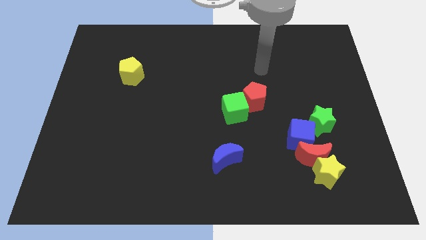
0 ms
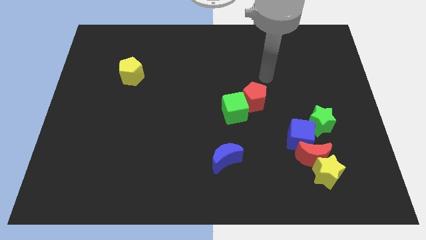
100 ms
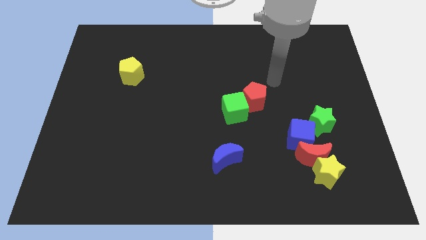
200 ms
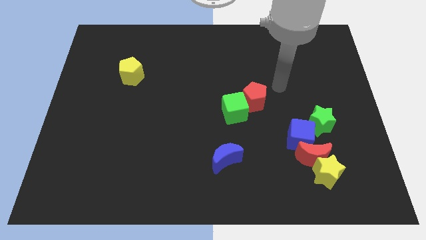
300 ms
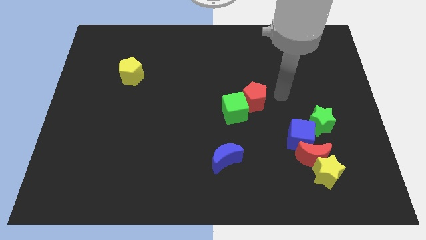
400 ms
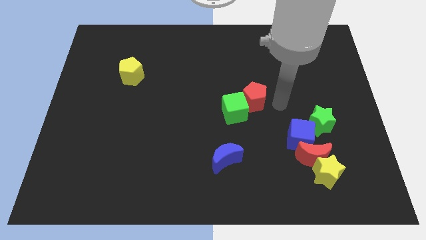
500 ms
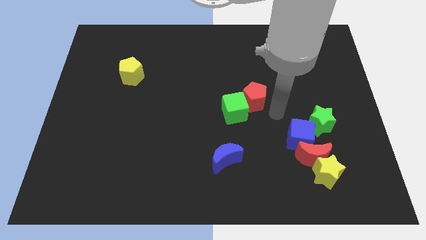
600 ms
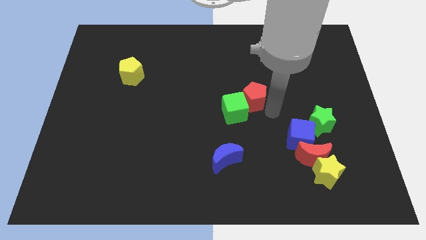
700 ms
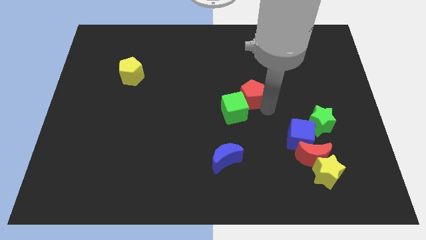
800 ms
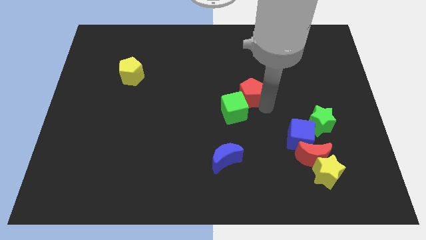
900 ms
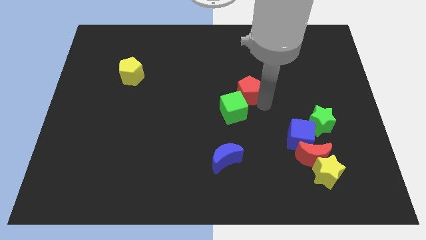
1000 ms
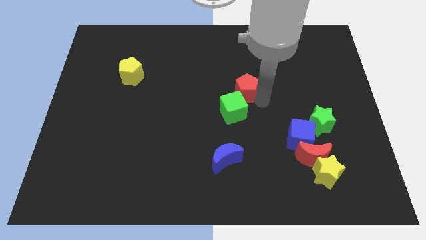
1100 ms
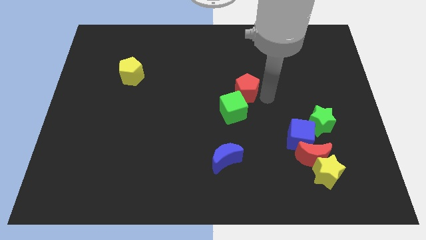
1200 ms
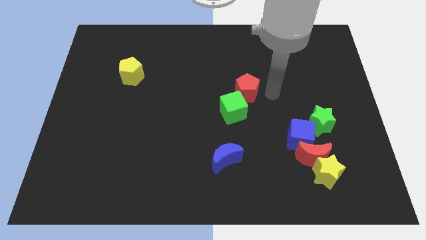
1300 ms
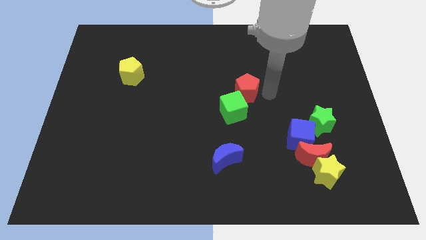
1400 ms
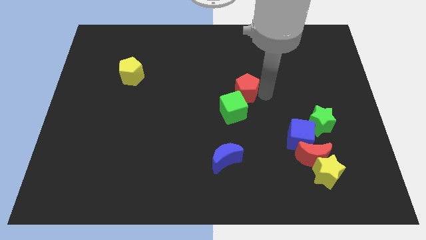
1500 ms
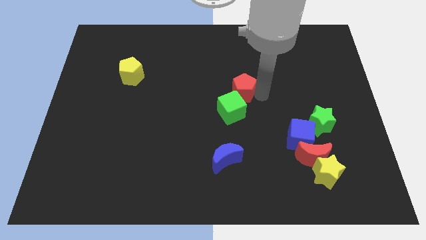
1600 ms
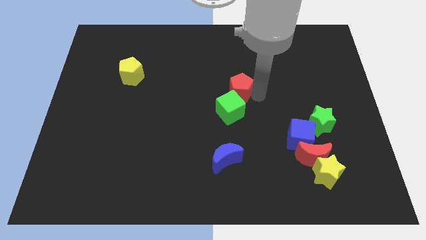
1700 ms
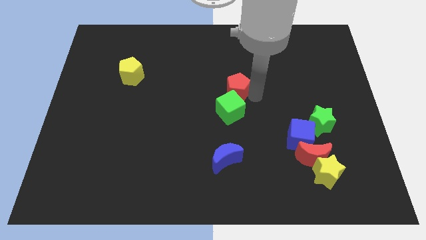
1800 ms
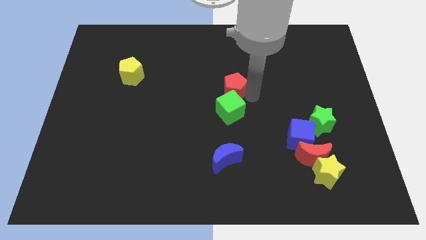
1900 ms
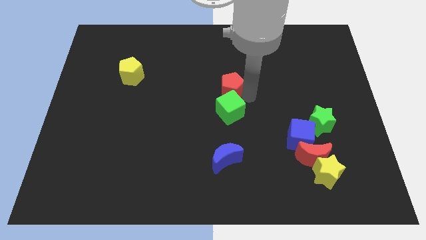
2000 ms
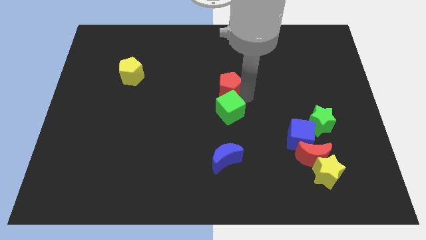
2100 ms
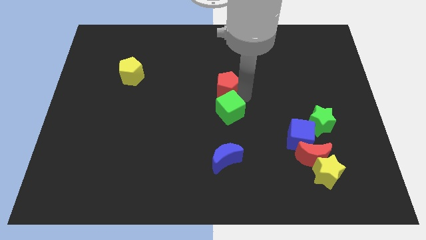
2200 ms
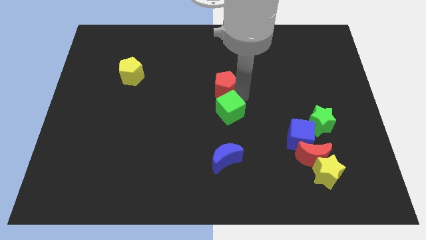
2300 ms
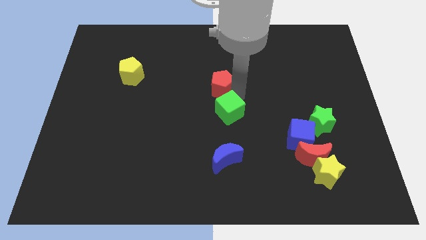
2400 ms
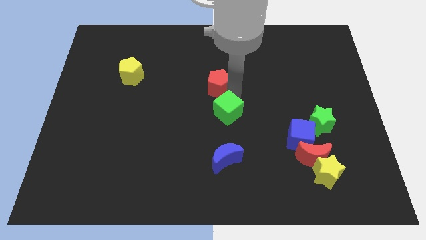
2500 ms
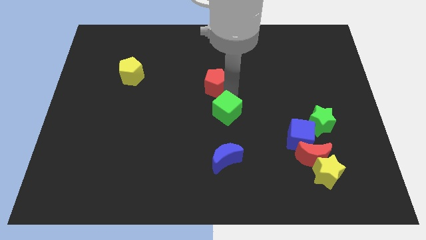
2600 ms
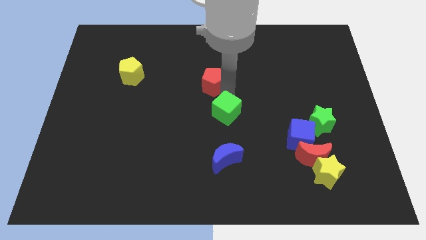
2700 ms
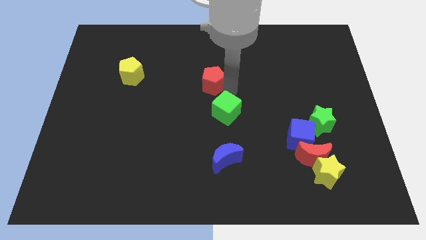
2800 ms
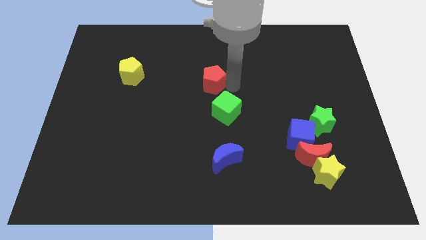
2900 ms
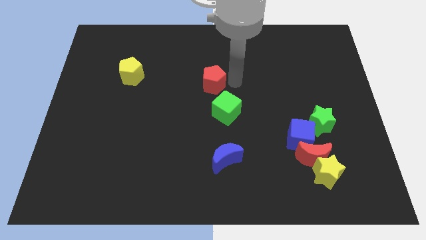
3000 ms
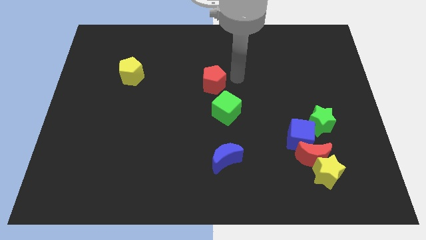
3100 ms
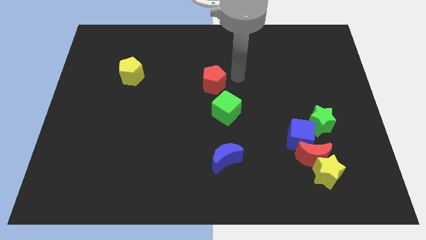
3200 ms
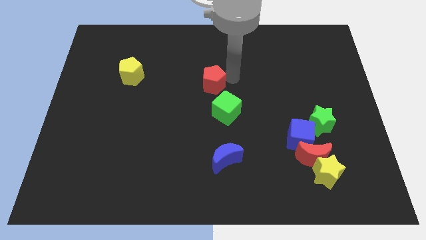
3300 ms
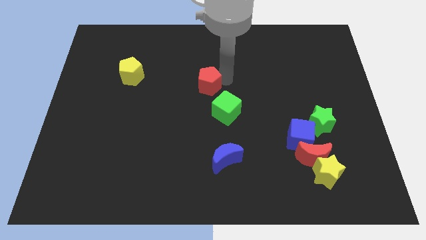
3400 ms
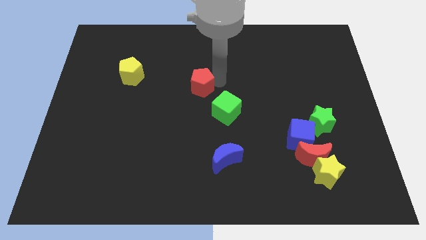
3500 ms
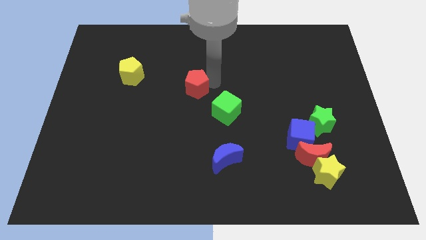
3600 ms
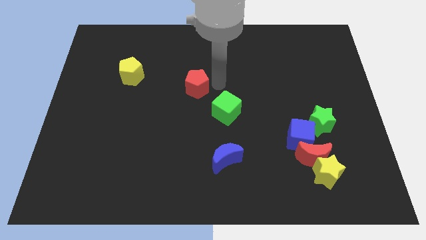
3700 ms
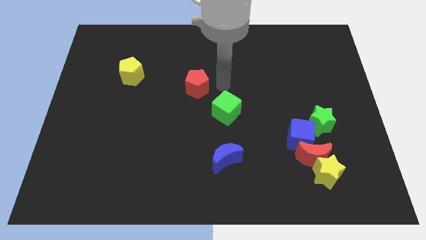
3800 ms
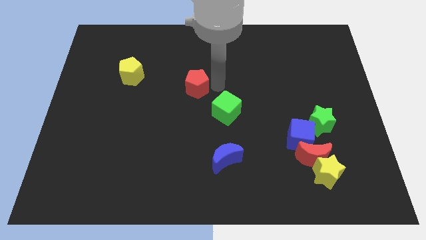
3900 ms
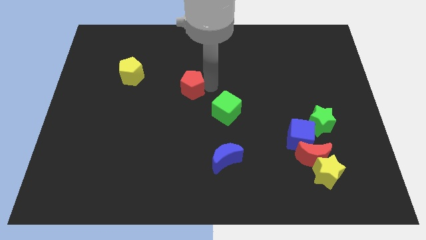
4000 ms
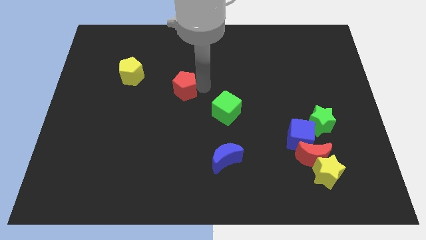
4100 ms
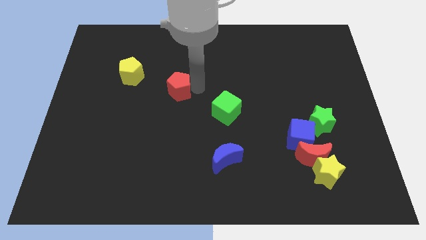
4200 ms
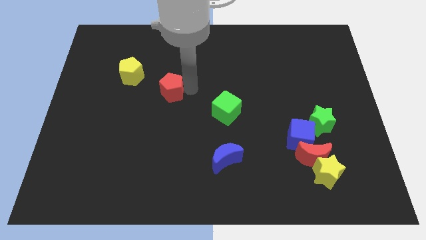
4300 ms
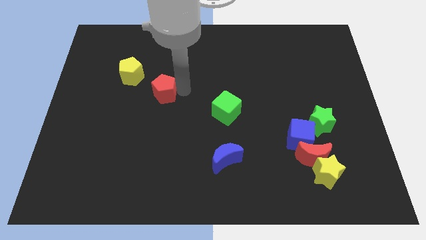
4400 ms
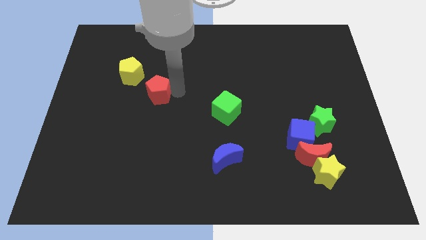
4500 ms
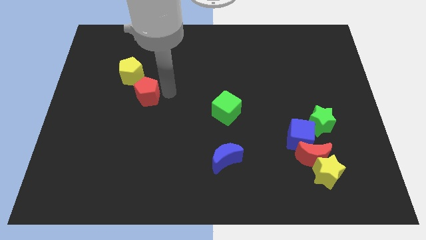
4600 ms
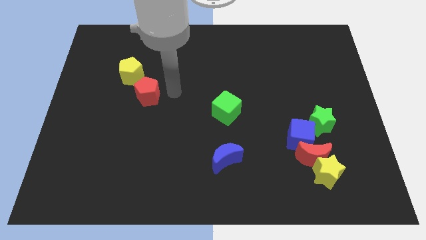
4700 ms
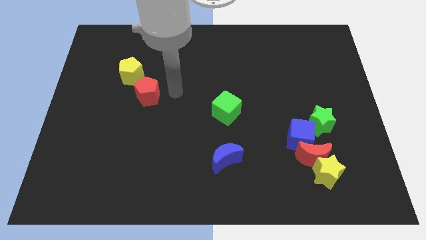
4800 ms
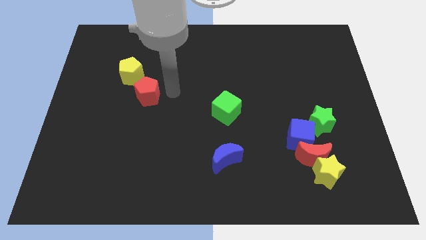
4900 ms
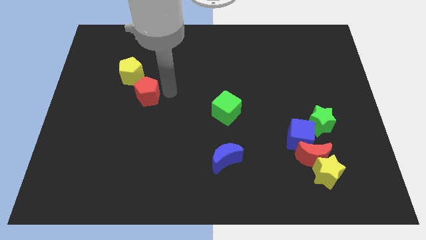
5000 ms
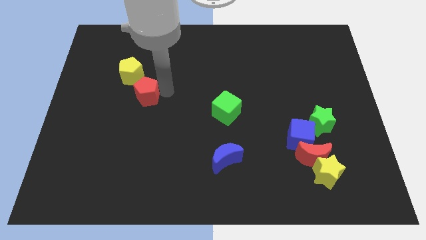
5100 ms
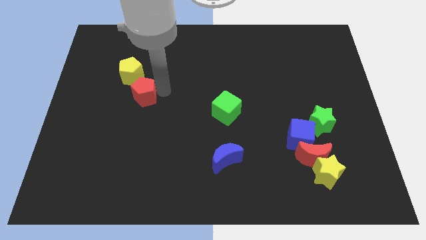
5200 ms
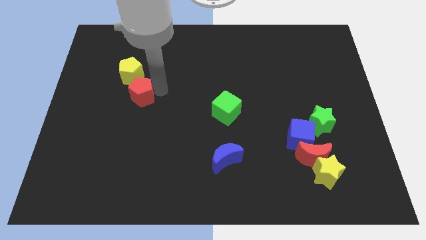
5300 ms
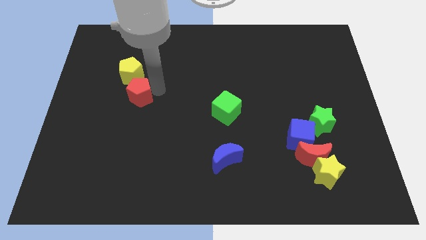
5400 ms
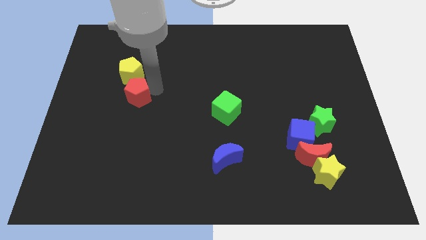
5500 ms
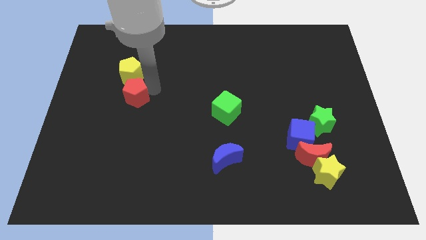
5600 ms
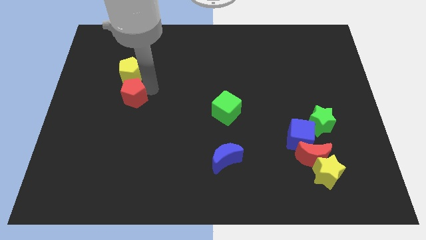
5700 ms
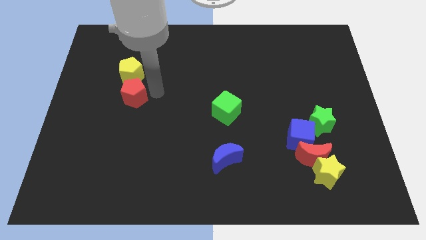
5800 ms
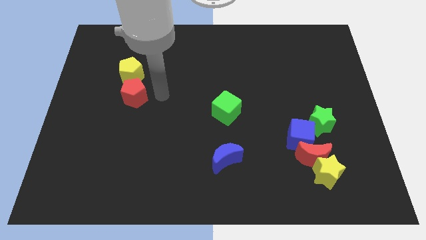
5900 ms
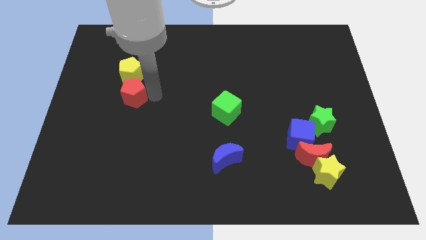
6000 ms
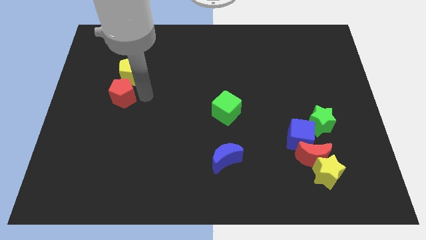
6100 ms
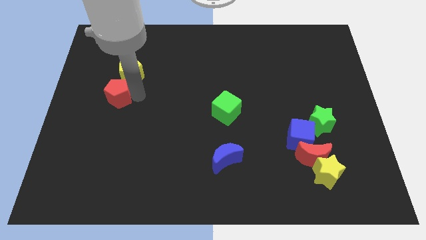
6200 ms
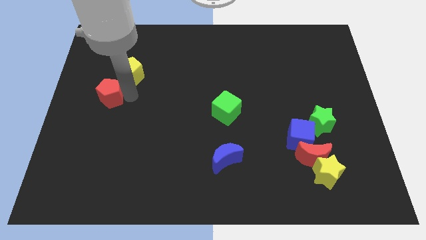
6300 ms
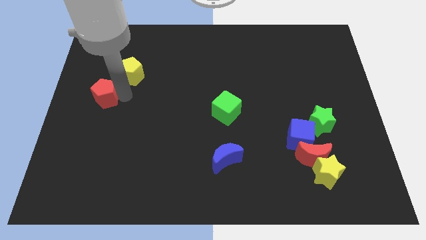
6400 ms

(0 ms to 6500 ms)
move the red pentagon to the left side of the board
